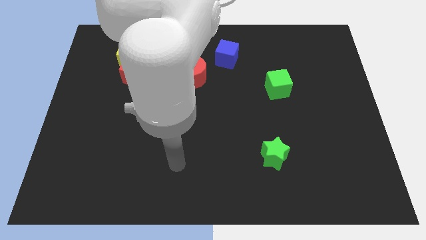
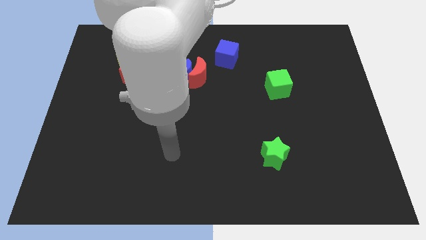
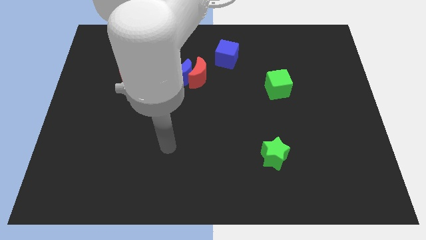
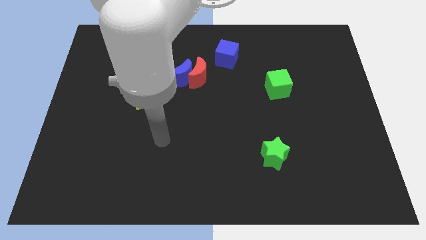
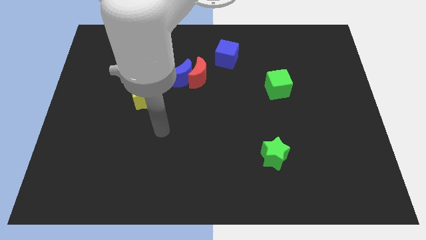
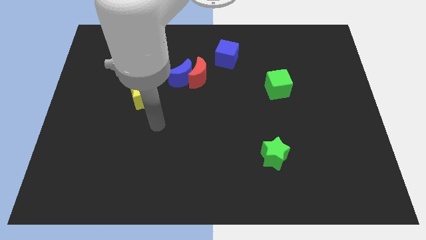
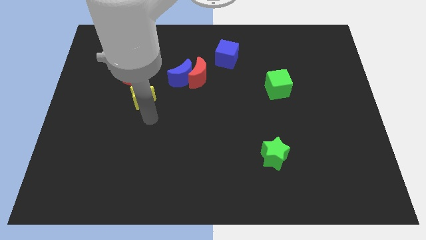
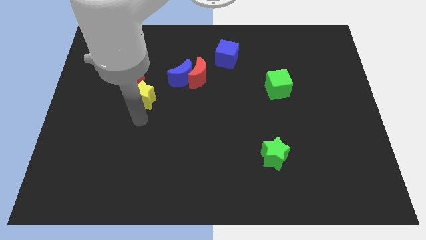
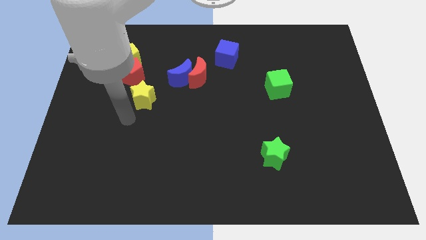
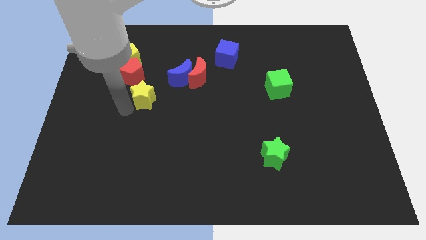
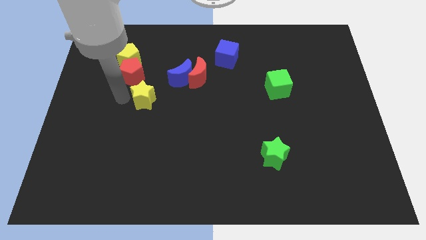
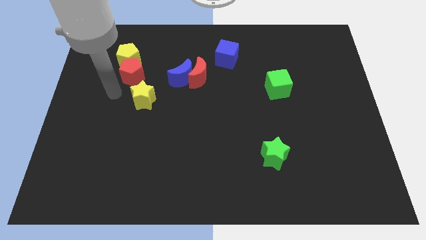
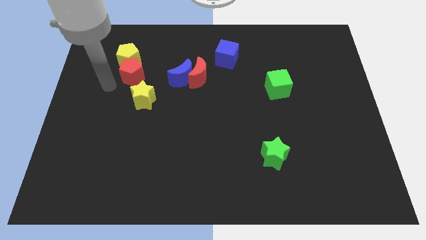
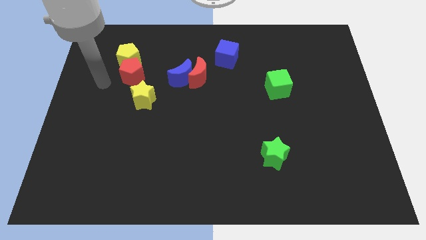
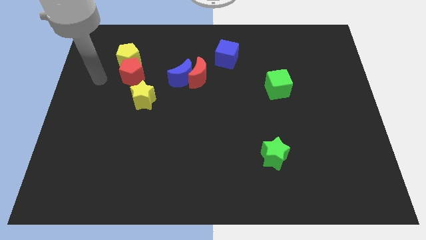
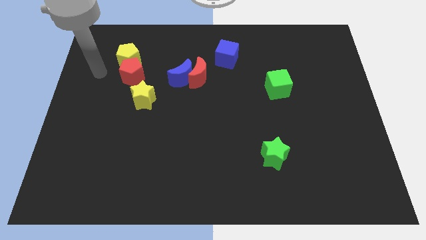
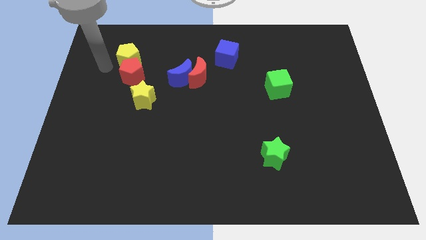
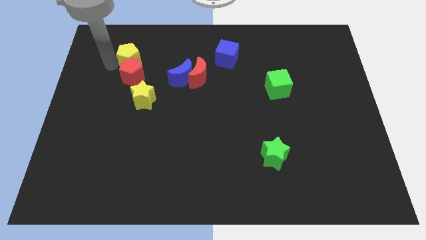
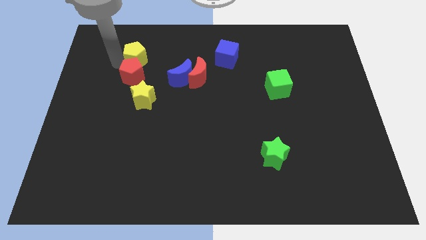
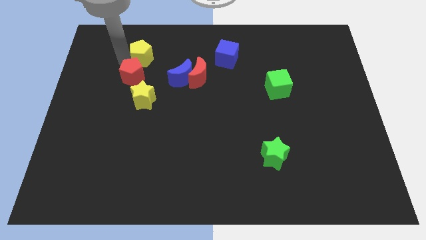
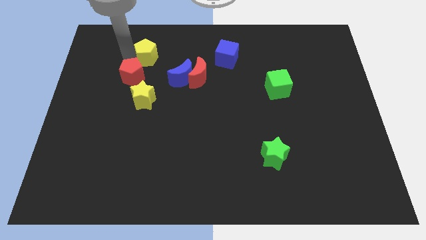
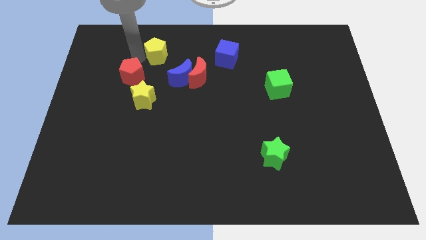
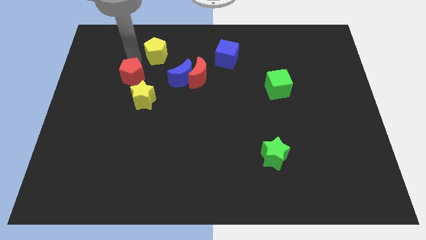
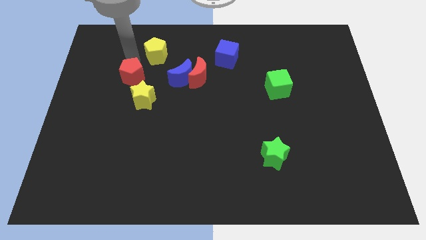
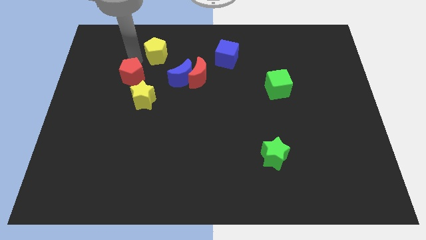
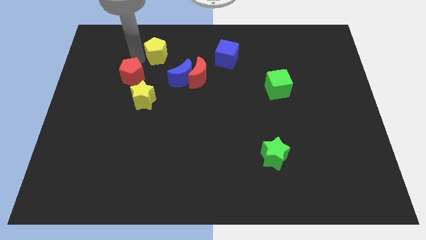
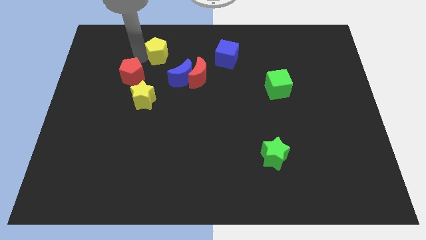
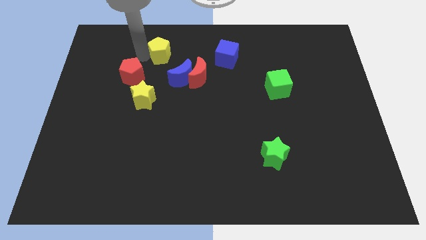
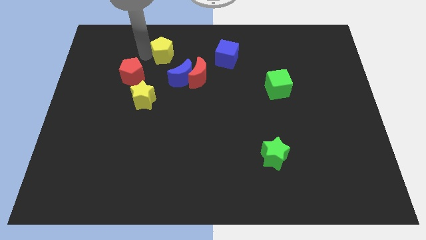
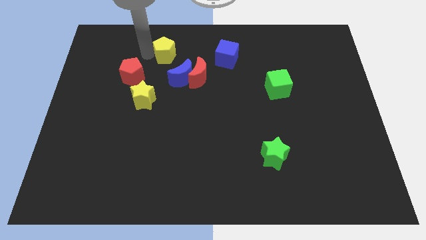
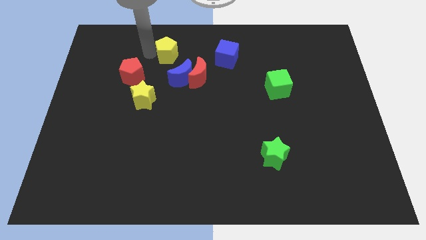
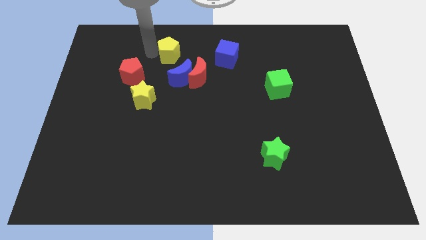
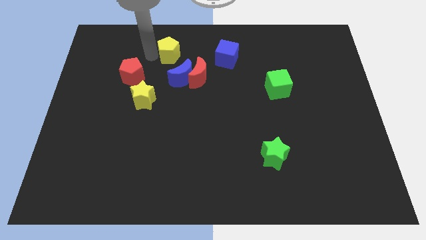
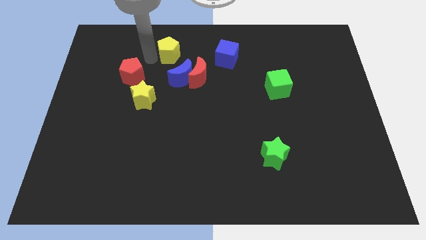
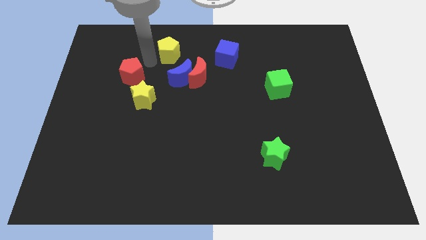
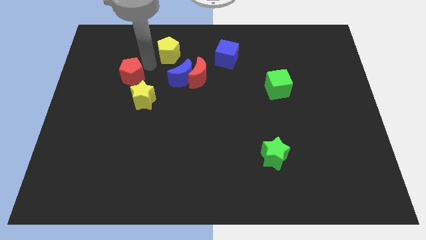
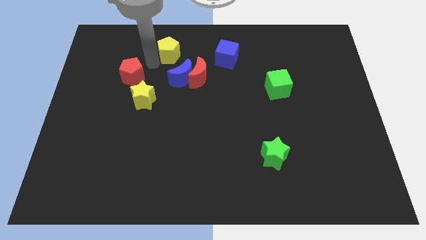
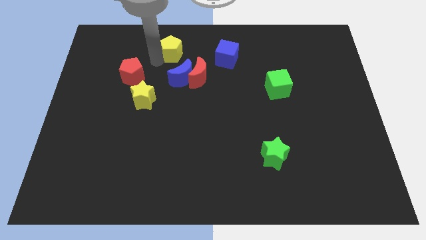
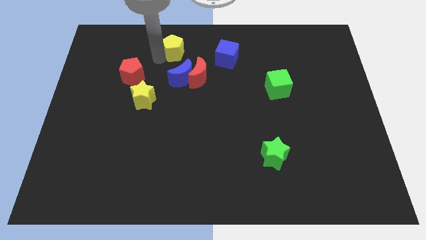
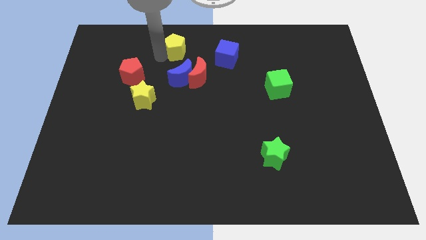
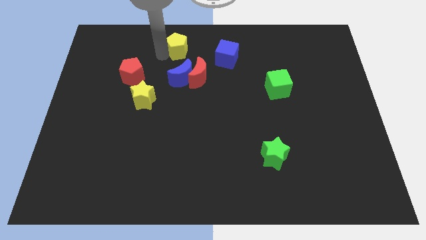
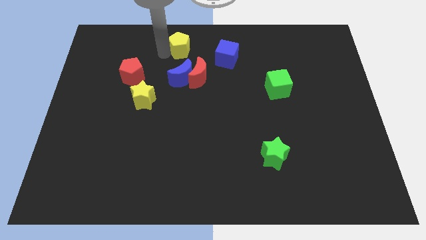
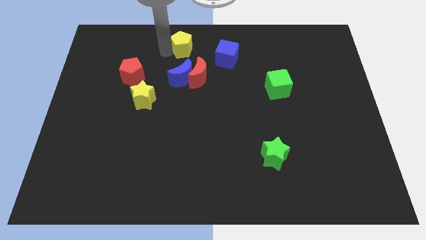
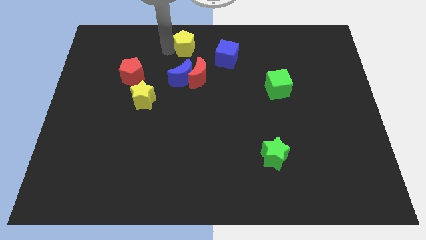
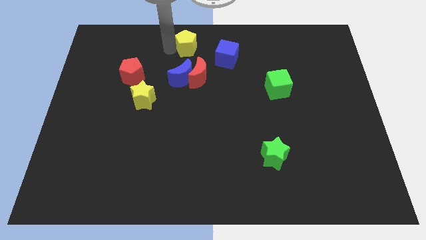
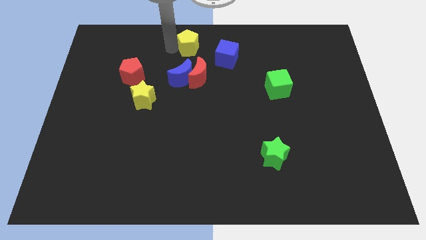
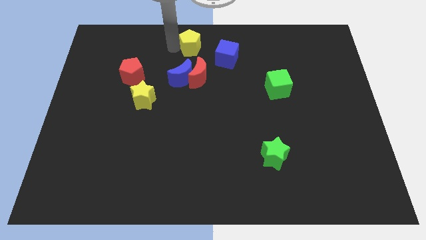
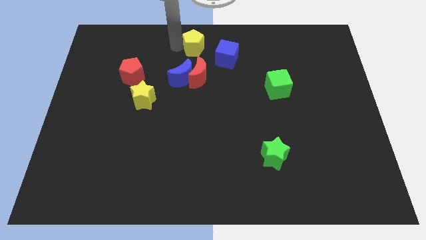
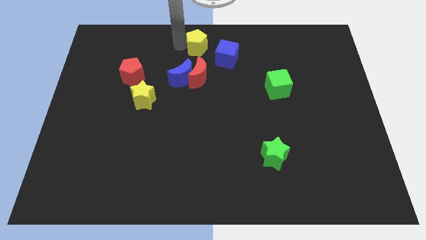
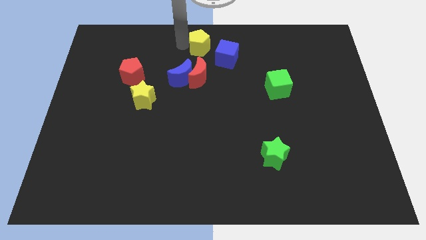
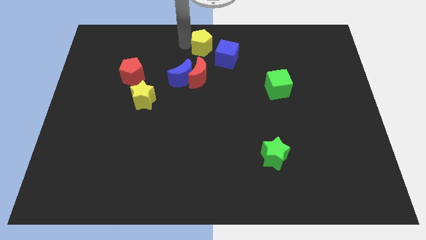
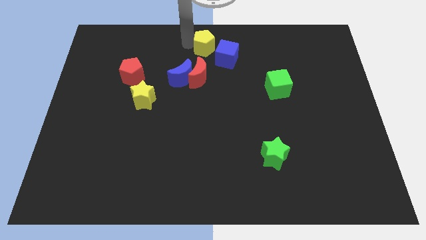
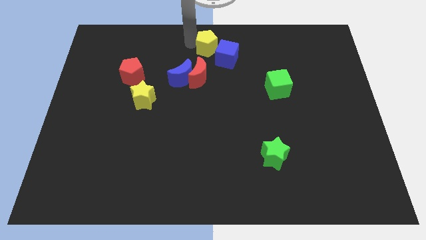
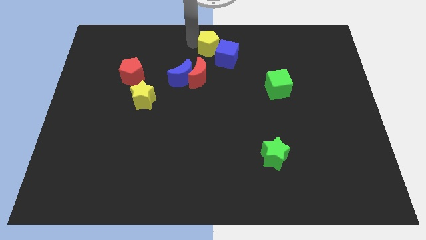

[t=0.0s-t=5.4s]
move the yellow pentagon to the right

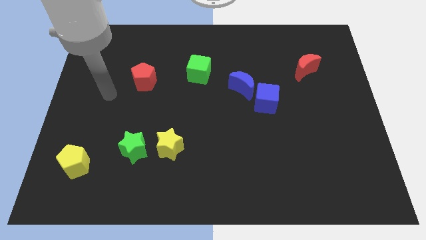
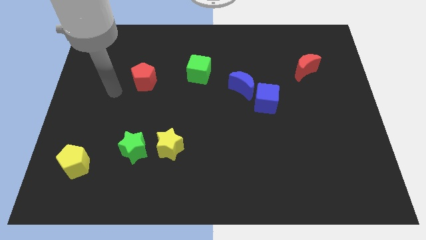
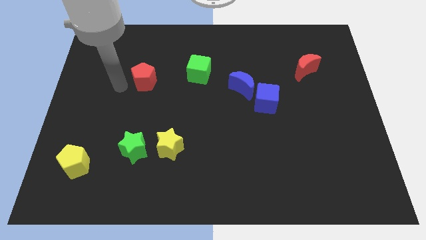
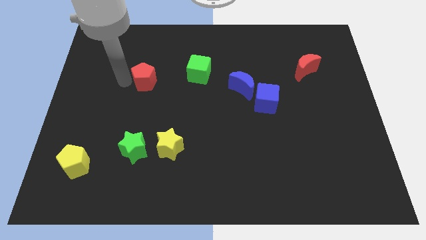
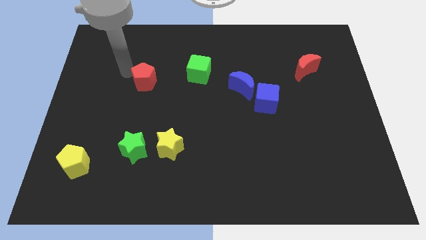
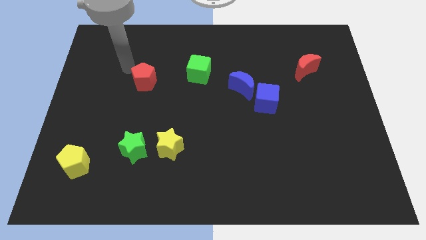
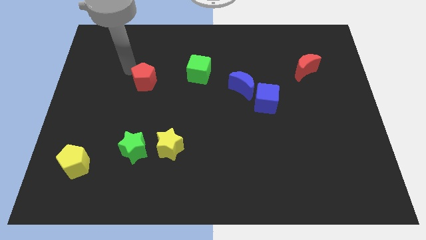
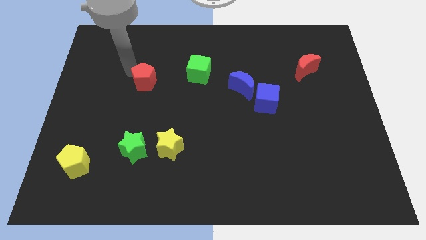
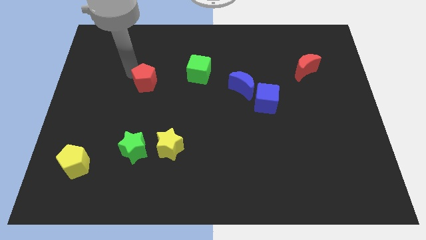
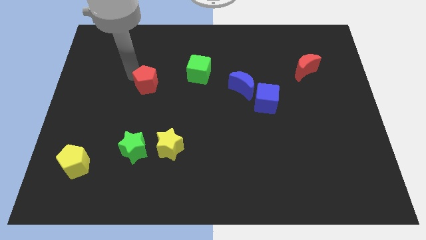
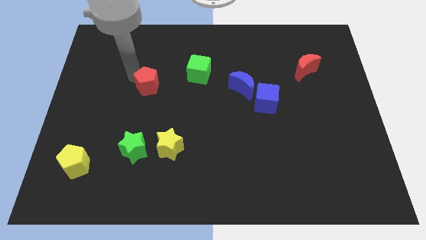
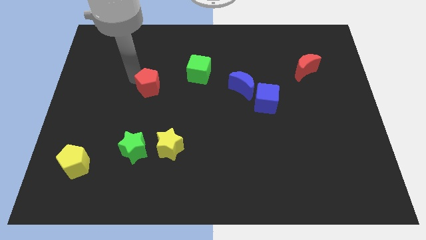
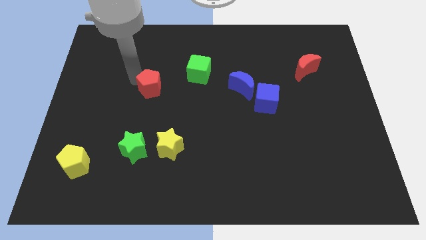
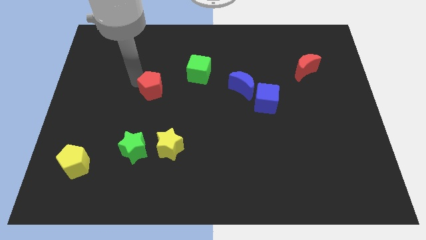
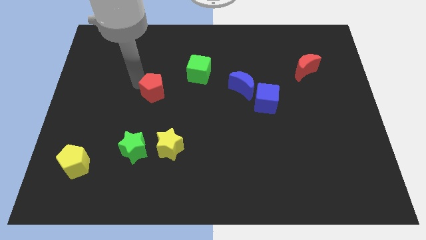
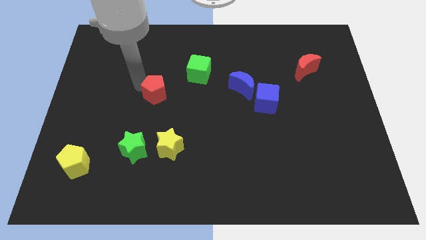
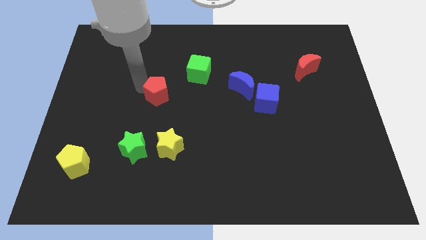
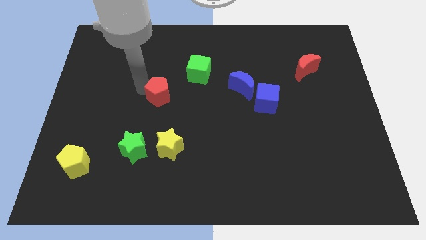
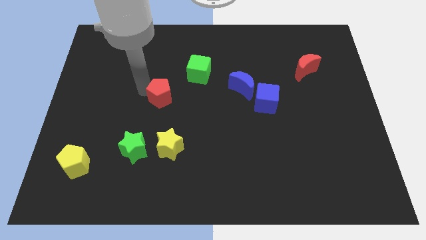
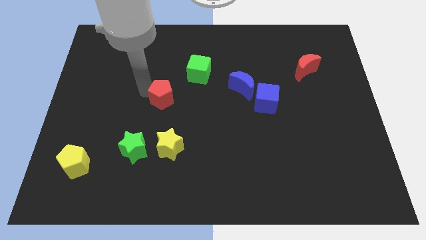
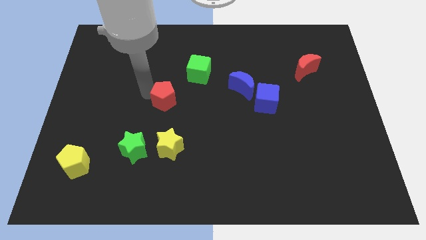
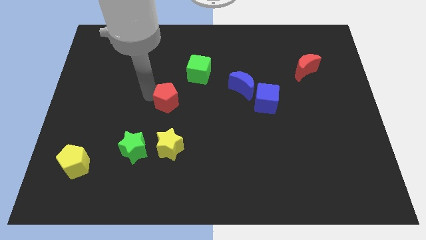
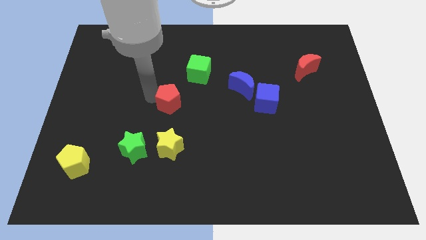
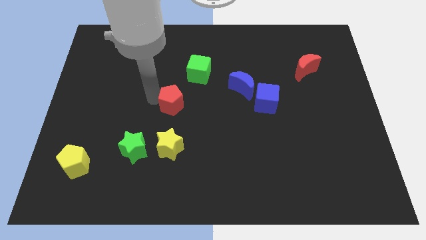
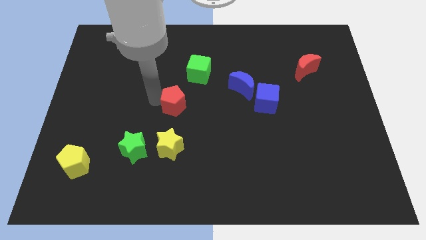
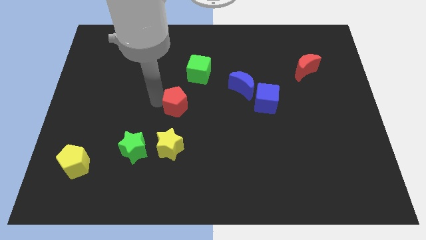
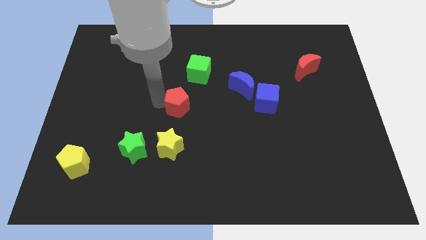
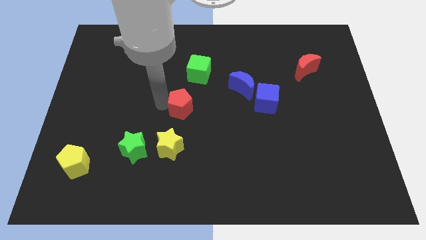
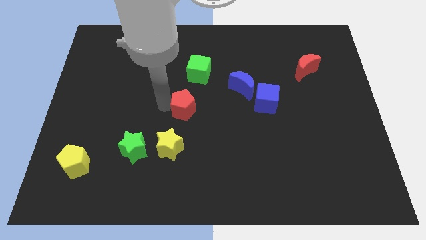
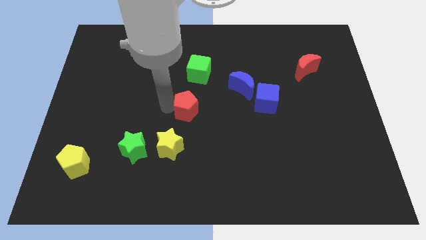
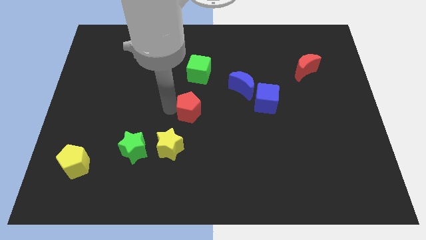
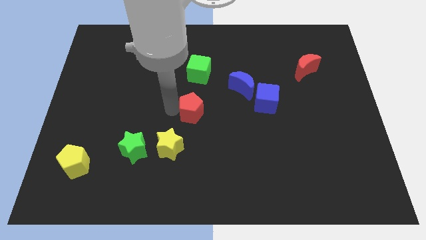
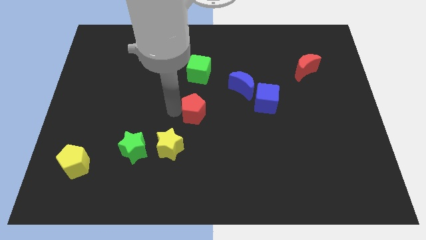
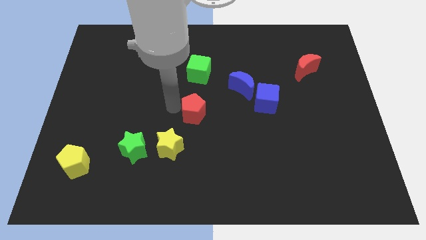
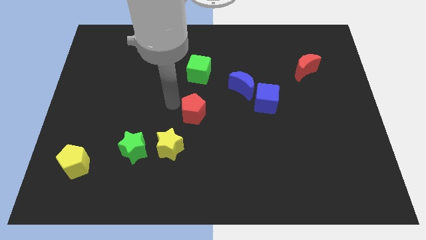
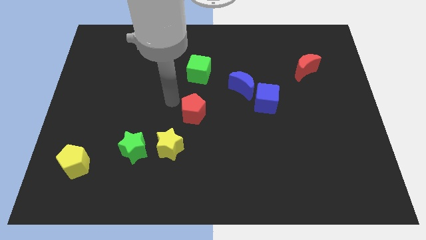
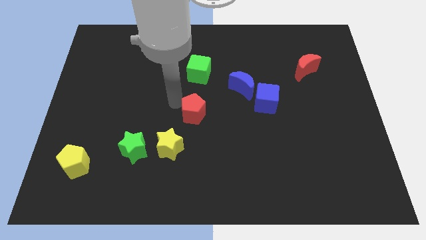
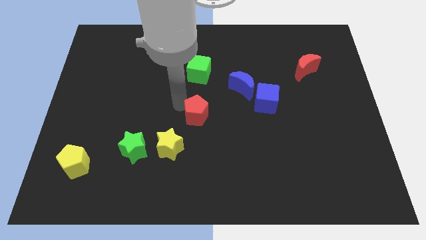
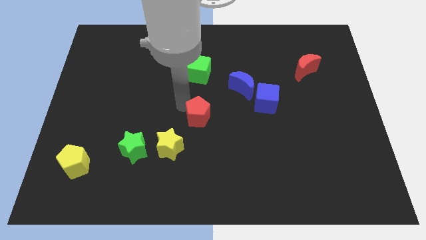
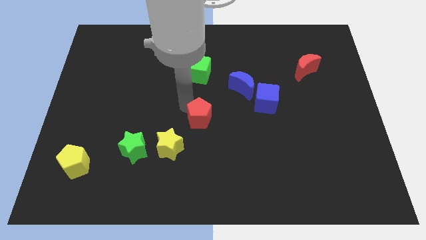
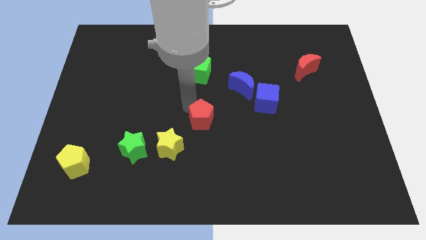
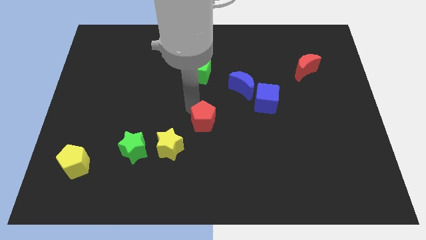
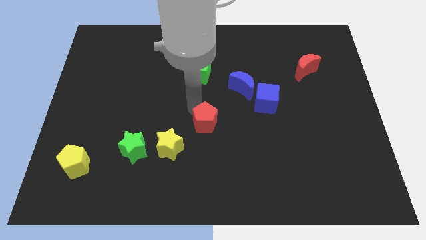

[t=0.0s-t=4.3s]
move the red pentagon downwards and right diagonally
